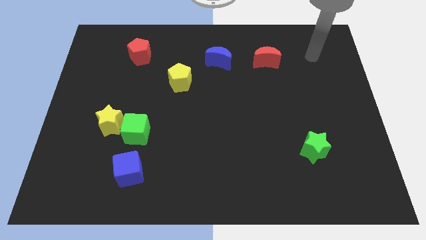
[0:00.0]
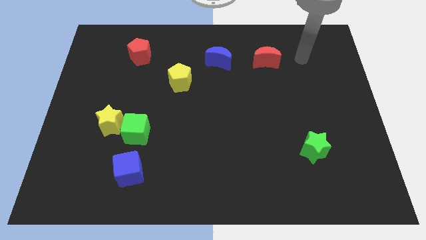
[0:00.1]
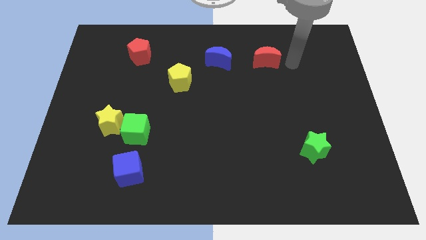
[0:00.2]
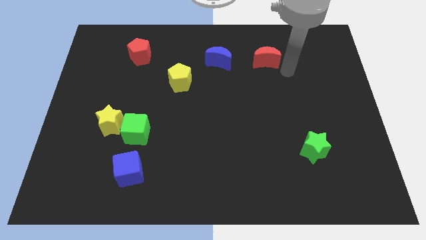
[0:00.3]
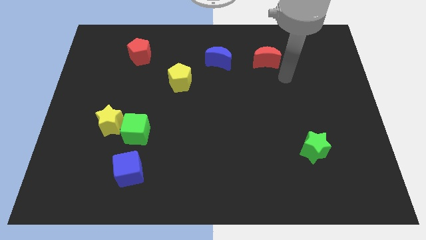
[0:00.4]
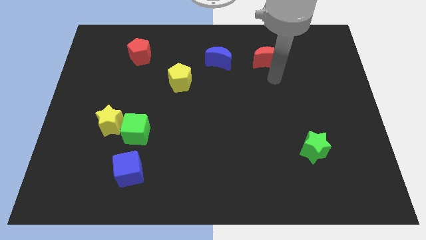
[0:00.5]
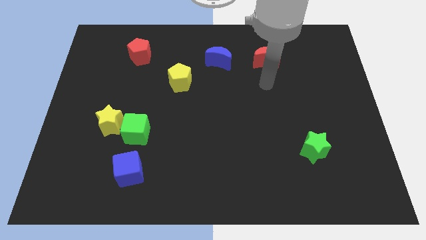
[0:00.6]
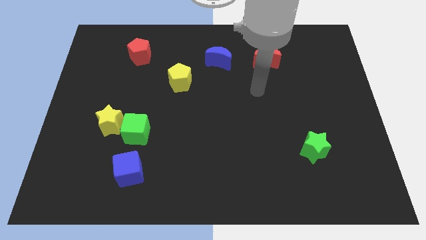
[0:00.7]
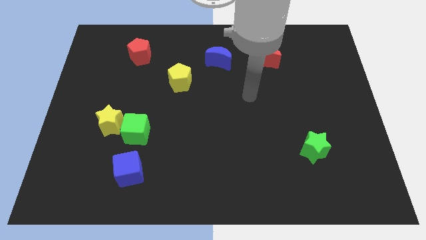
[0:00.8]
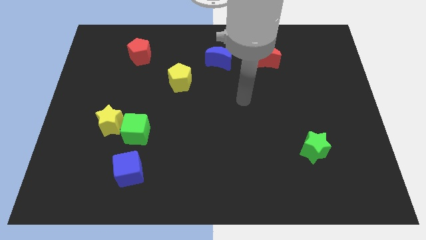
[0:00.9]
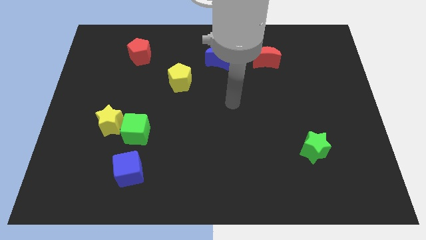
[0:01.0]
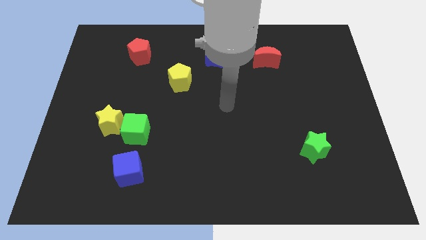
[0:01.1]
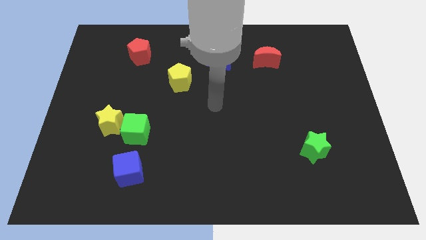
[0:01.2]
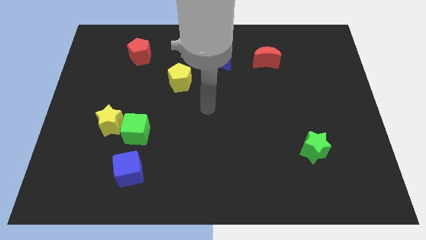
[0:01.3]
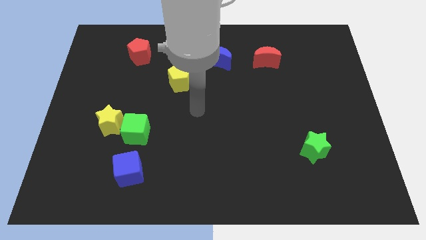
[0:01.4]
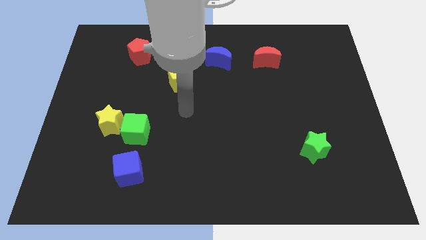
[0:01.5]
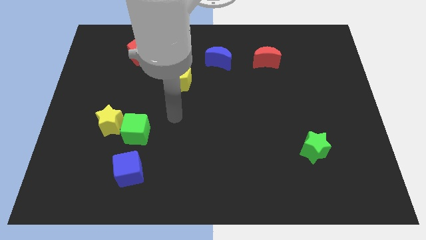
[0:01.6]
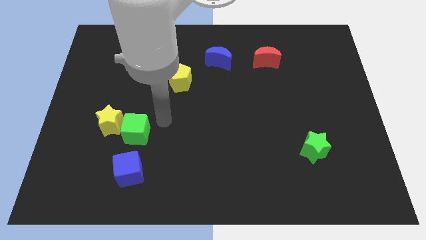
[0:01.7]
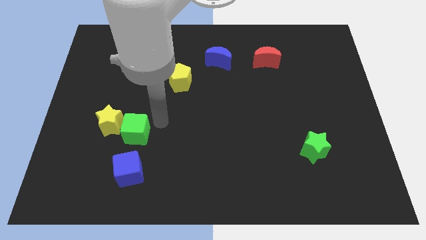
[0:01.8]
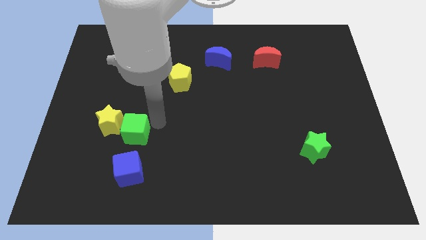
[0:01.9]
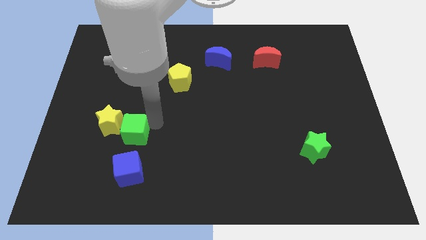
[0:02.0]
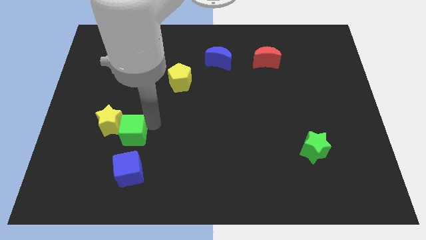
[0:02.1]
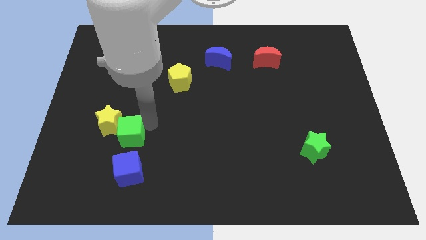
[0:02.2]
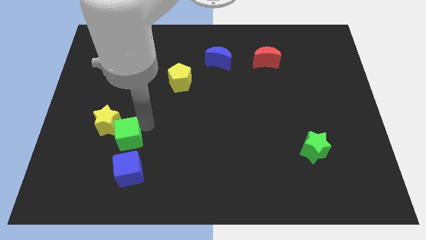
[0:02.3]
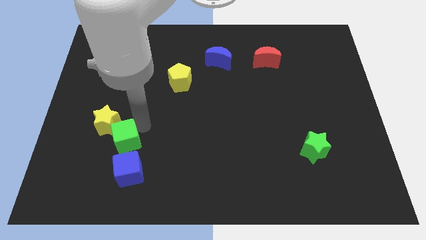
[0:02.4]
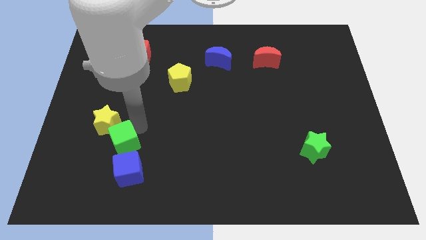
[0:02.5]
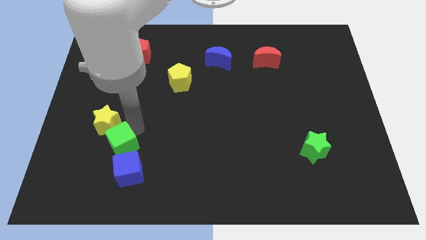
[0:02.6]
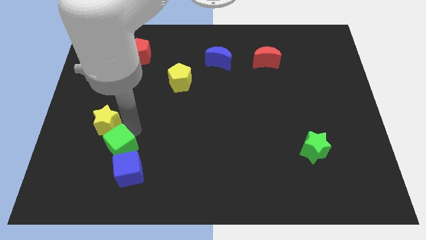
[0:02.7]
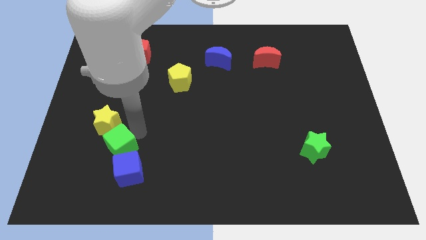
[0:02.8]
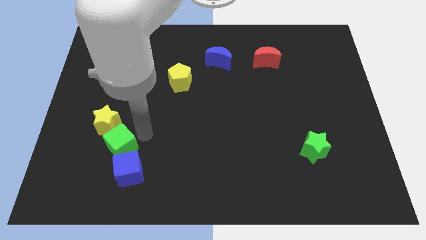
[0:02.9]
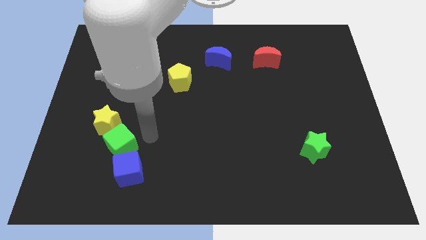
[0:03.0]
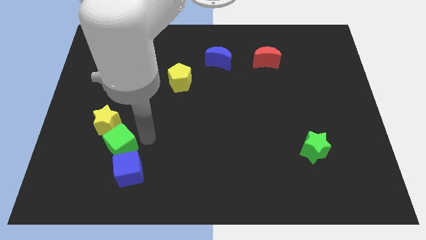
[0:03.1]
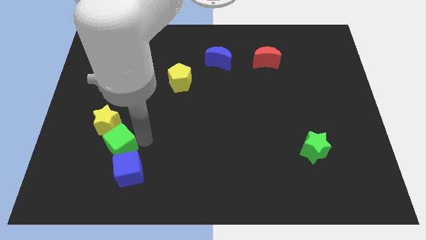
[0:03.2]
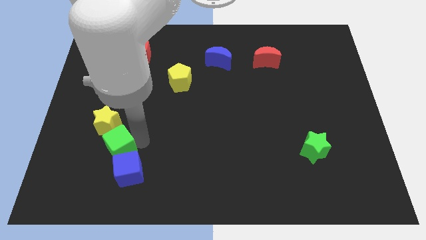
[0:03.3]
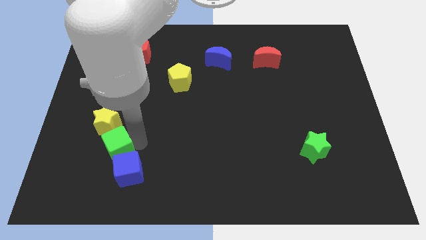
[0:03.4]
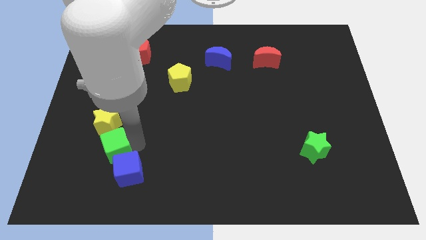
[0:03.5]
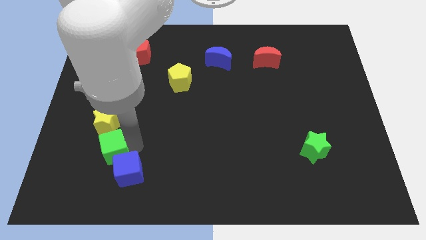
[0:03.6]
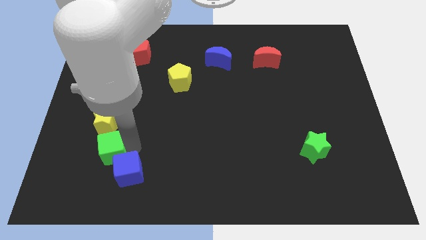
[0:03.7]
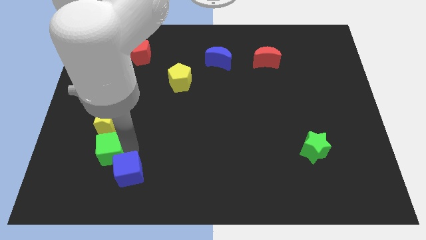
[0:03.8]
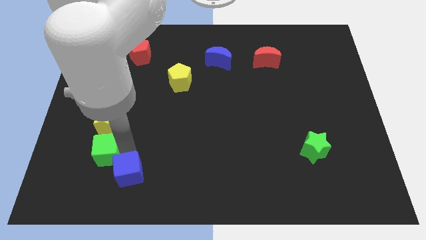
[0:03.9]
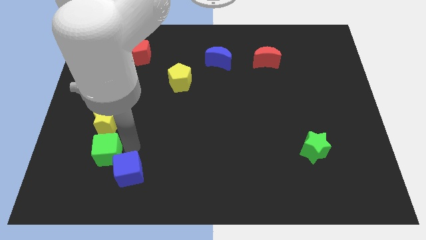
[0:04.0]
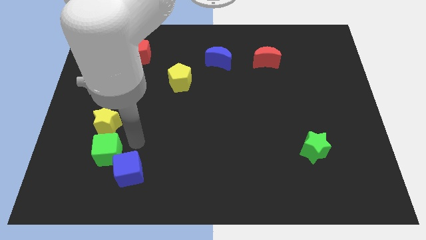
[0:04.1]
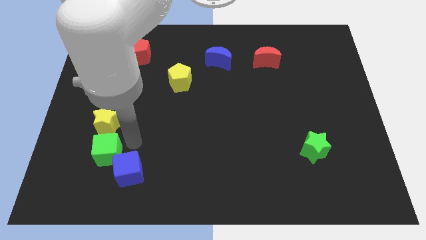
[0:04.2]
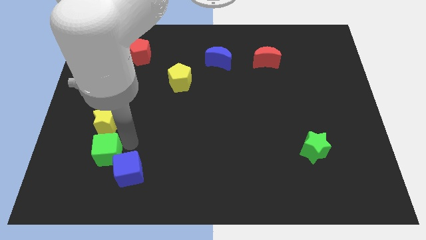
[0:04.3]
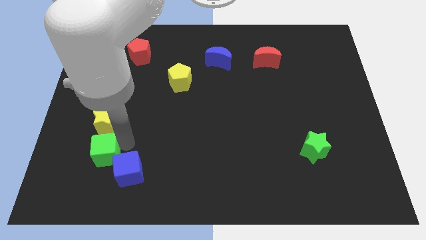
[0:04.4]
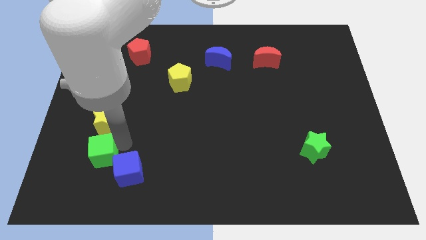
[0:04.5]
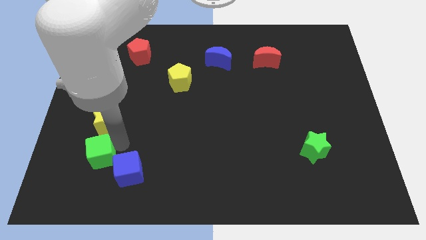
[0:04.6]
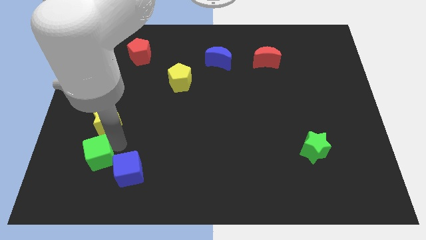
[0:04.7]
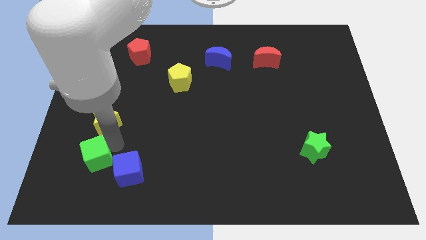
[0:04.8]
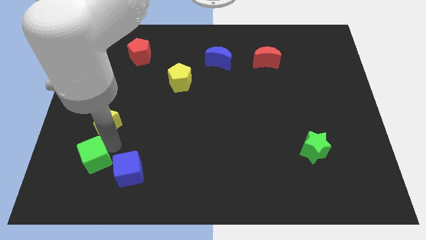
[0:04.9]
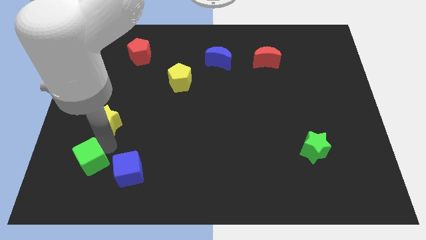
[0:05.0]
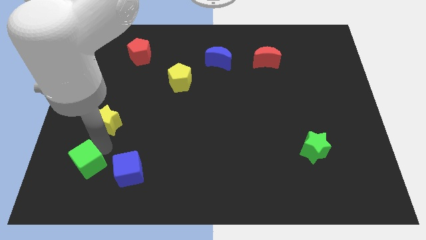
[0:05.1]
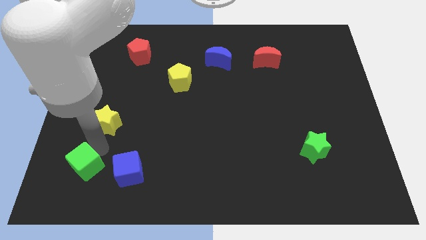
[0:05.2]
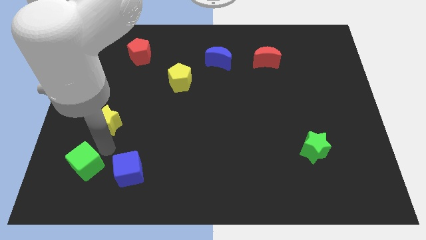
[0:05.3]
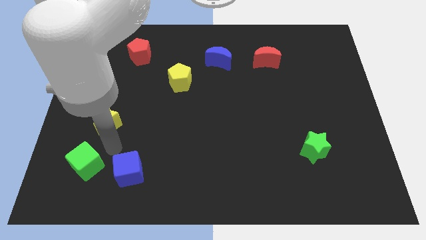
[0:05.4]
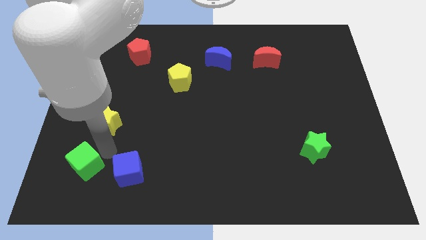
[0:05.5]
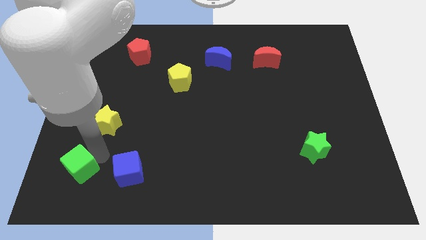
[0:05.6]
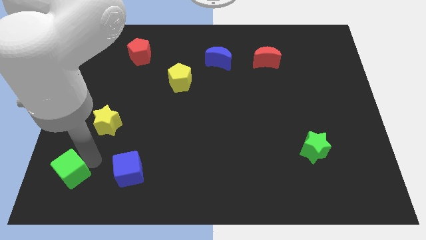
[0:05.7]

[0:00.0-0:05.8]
slide the green cube to the lower left corner

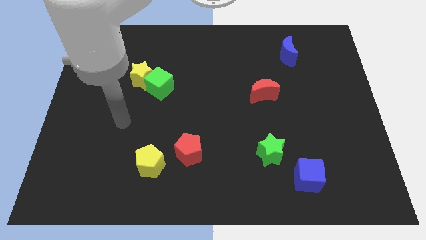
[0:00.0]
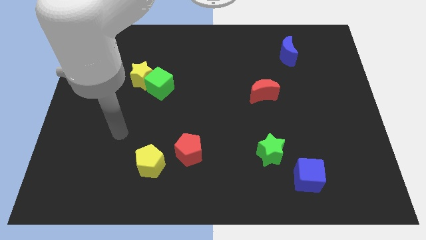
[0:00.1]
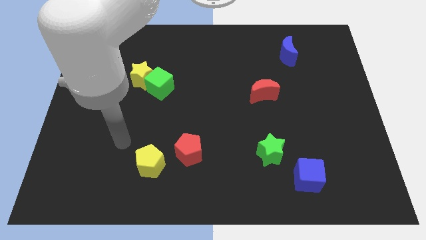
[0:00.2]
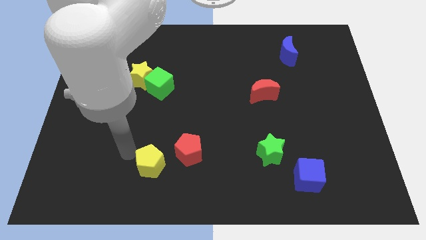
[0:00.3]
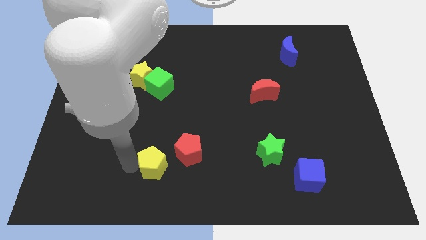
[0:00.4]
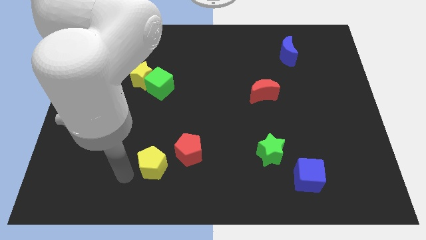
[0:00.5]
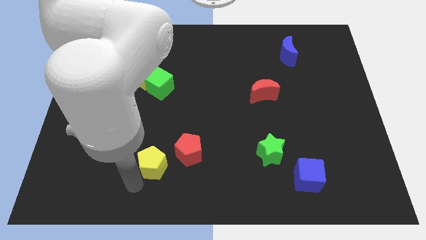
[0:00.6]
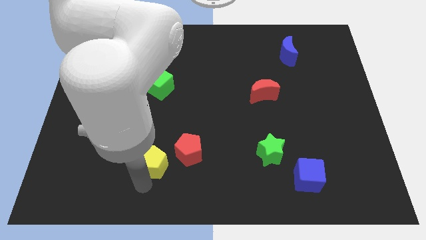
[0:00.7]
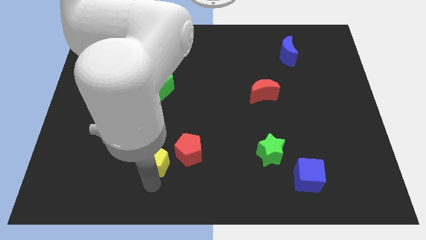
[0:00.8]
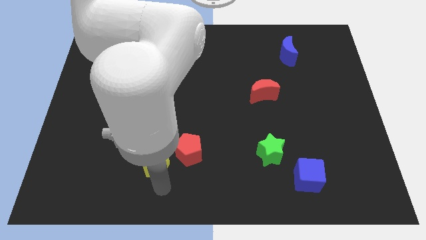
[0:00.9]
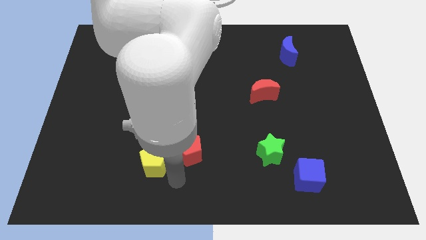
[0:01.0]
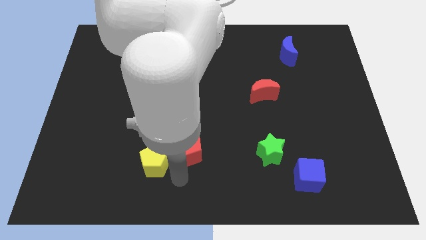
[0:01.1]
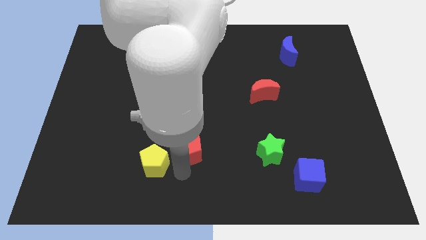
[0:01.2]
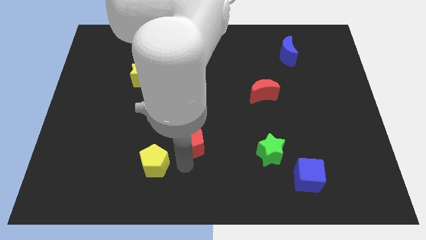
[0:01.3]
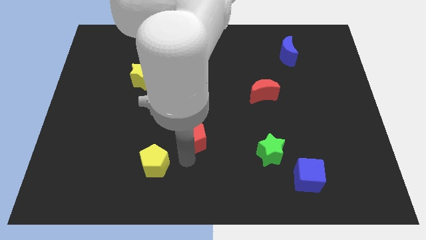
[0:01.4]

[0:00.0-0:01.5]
push the red pentagon to the center

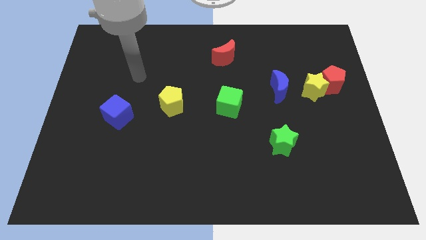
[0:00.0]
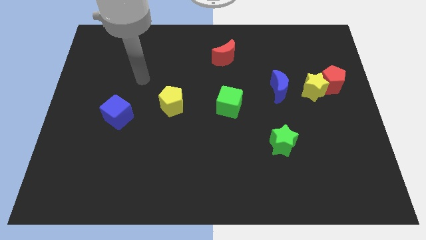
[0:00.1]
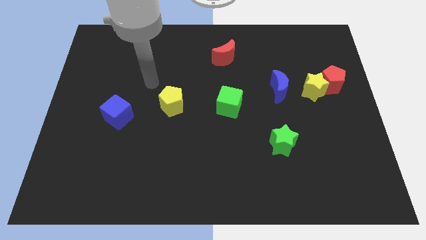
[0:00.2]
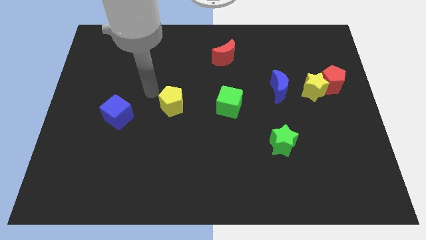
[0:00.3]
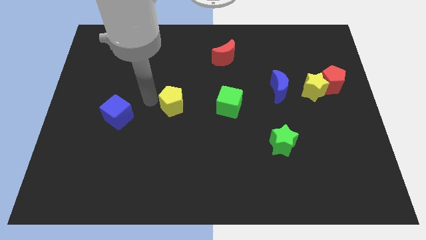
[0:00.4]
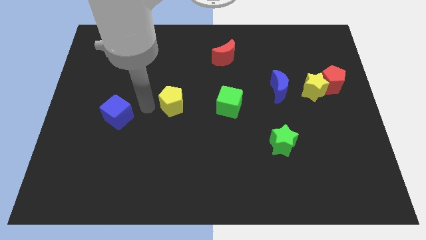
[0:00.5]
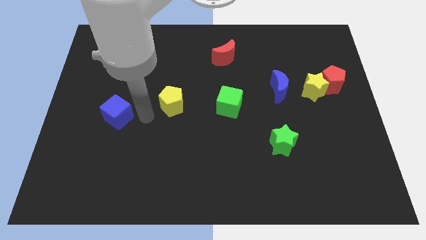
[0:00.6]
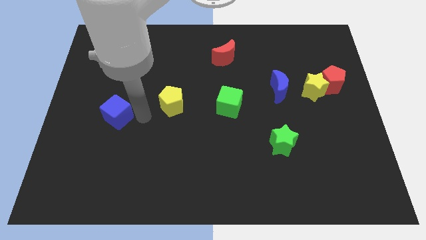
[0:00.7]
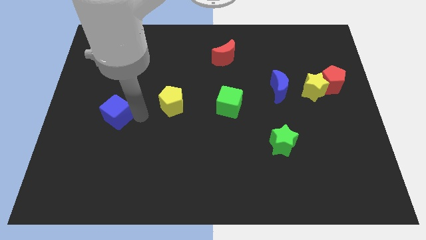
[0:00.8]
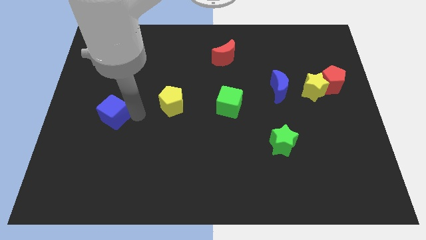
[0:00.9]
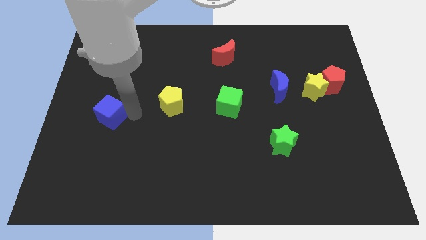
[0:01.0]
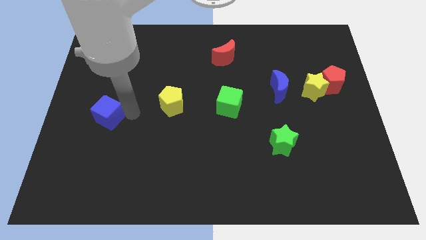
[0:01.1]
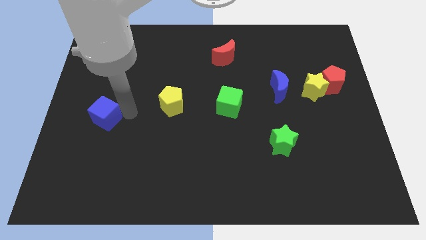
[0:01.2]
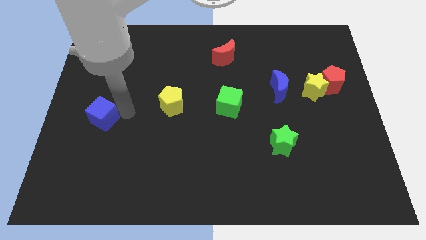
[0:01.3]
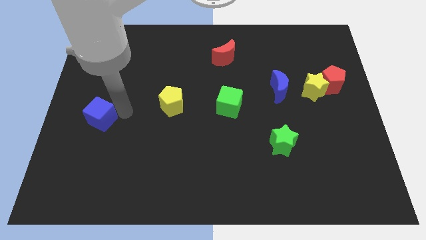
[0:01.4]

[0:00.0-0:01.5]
put the blue cube to the center left
